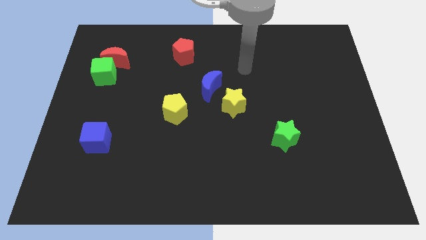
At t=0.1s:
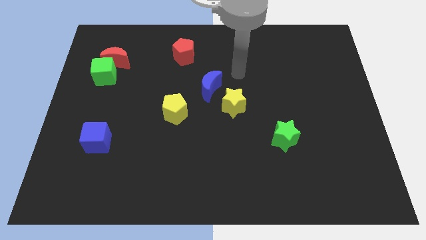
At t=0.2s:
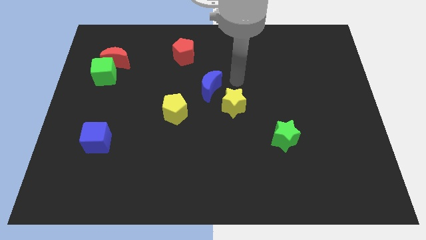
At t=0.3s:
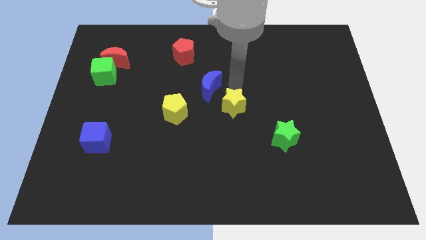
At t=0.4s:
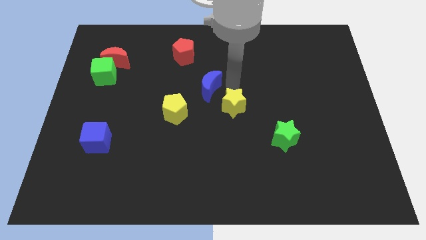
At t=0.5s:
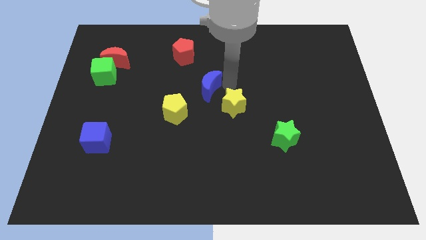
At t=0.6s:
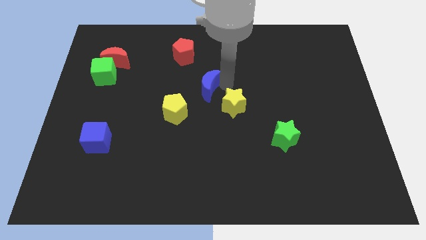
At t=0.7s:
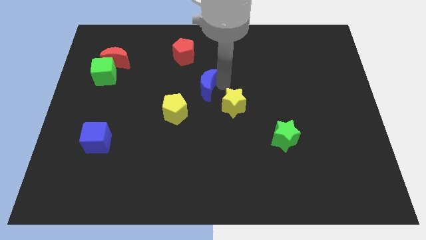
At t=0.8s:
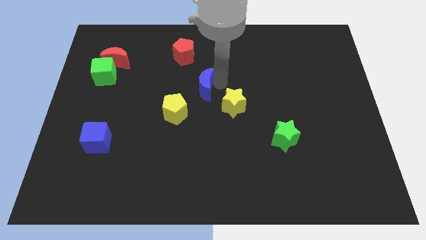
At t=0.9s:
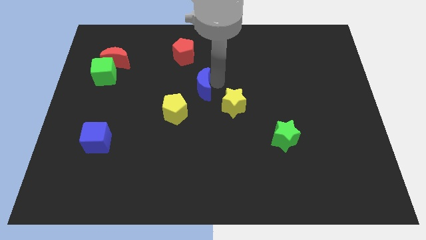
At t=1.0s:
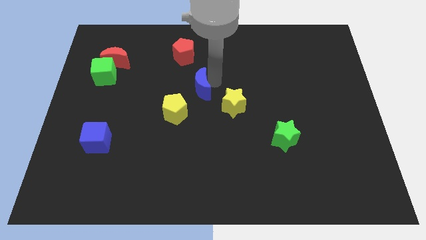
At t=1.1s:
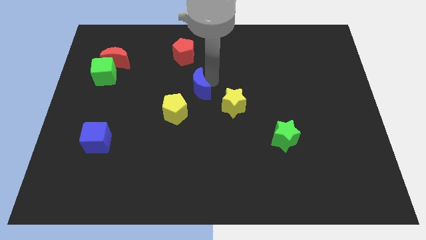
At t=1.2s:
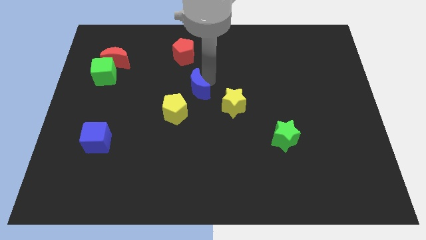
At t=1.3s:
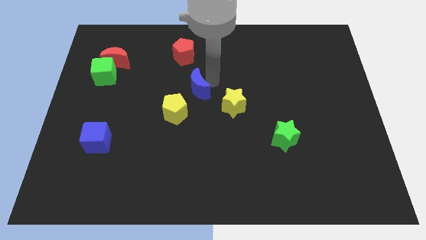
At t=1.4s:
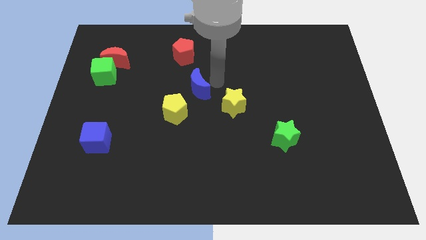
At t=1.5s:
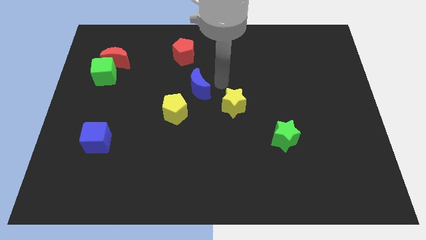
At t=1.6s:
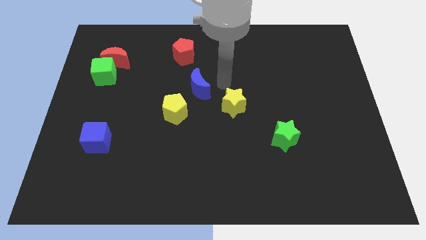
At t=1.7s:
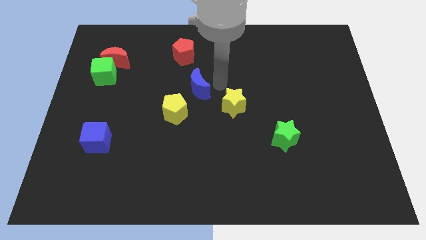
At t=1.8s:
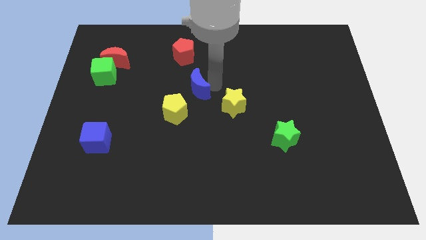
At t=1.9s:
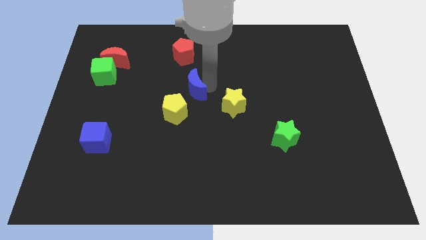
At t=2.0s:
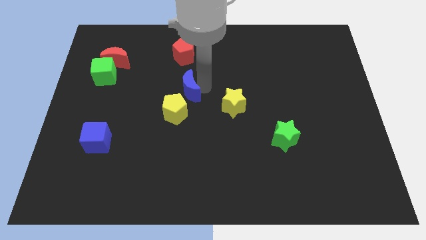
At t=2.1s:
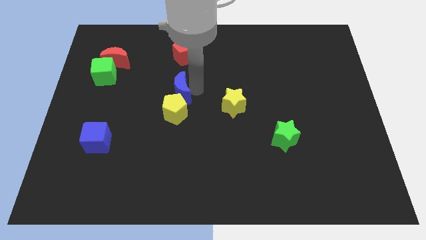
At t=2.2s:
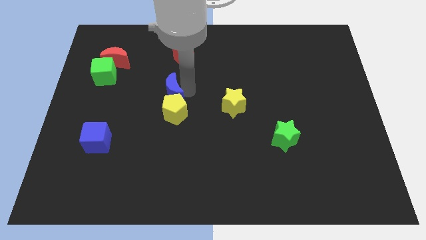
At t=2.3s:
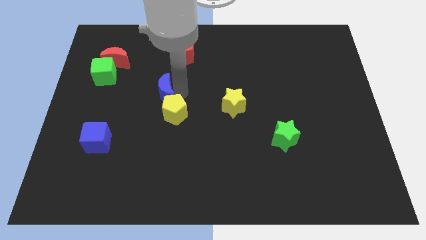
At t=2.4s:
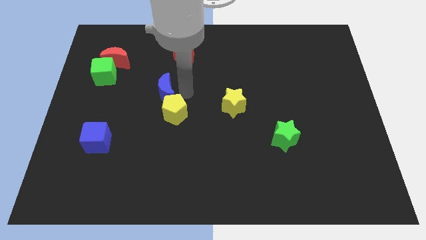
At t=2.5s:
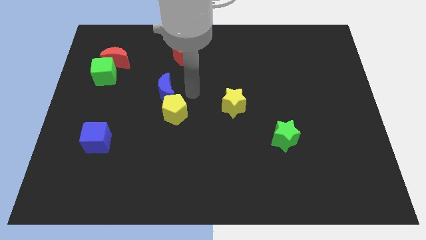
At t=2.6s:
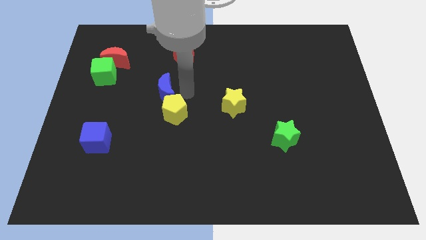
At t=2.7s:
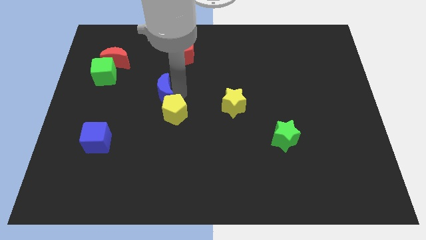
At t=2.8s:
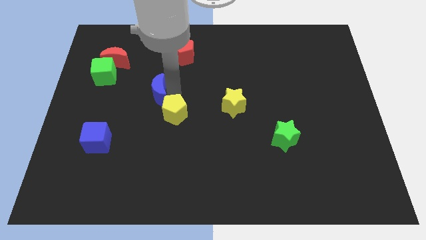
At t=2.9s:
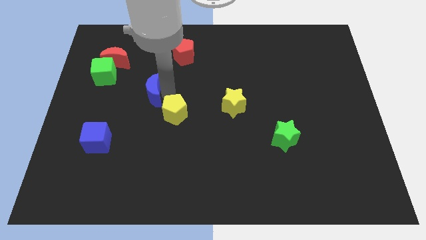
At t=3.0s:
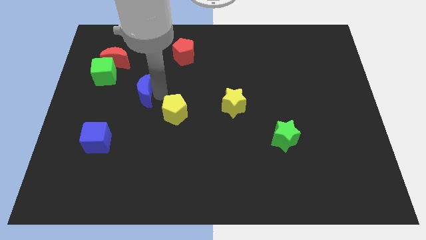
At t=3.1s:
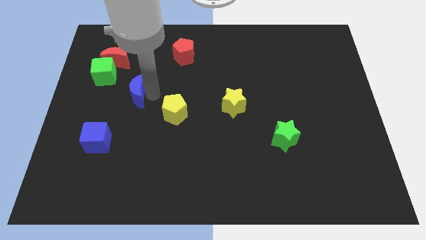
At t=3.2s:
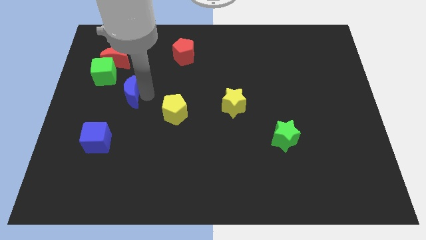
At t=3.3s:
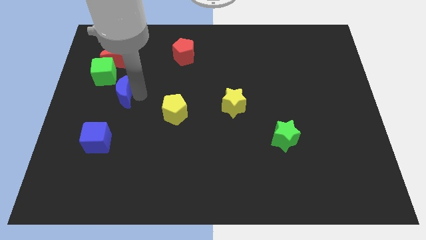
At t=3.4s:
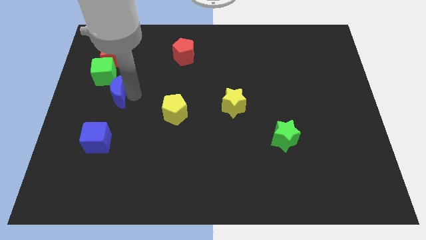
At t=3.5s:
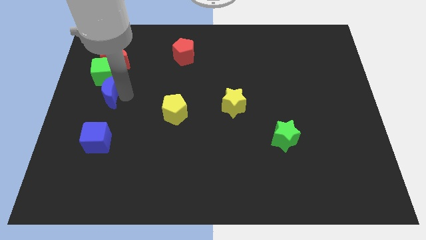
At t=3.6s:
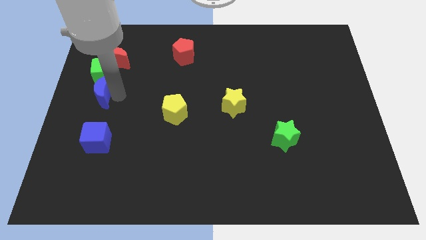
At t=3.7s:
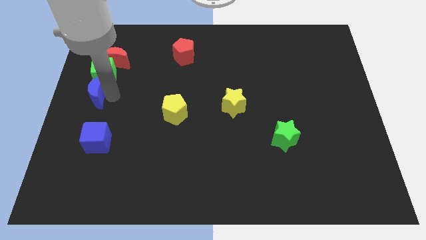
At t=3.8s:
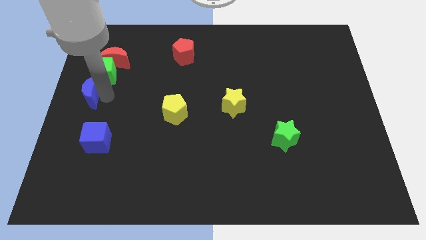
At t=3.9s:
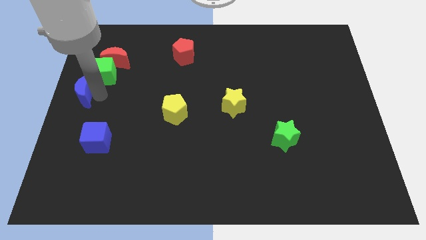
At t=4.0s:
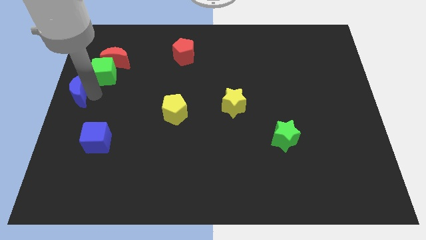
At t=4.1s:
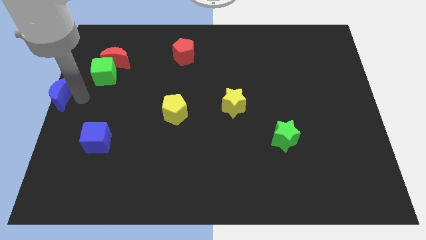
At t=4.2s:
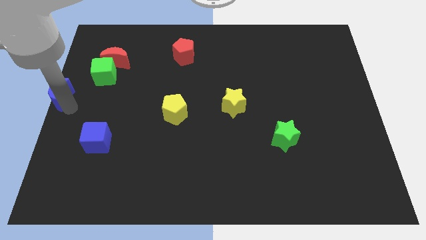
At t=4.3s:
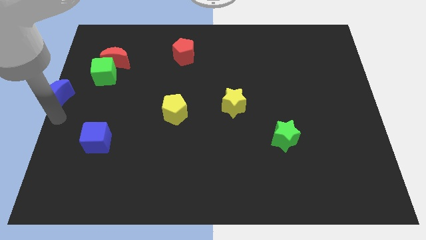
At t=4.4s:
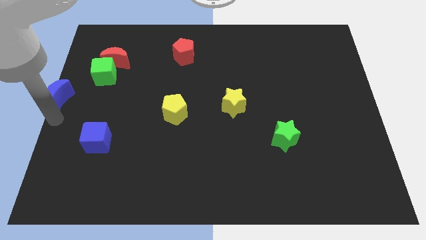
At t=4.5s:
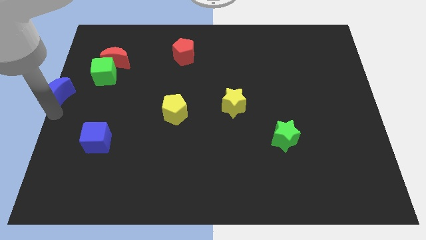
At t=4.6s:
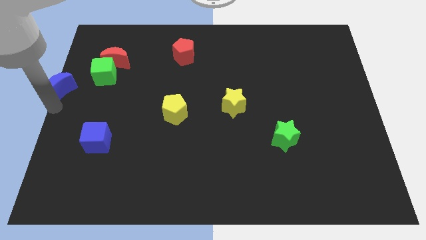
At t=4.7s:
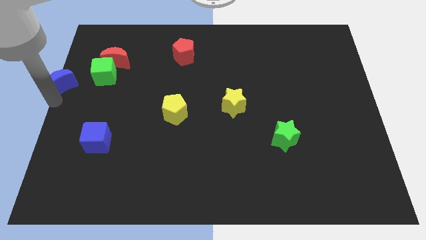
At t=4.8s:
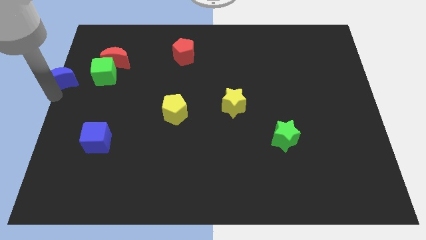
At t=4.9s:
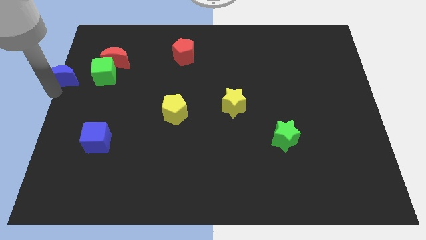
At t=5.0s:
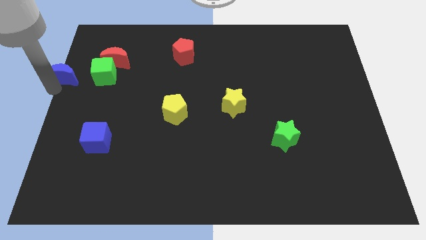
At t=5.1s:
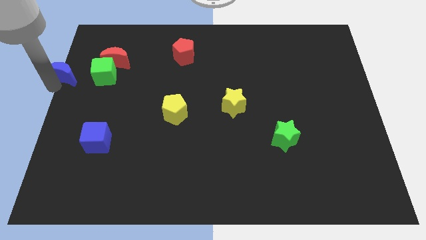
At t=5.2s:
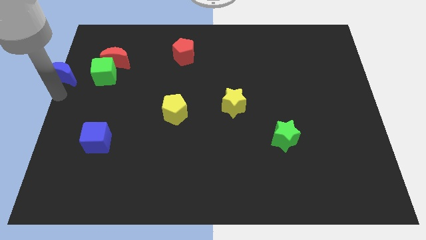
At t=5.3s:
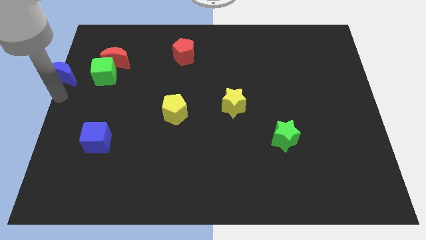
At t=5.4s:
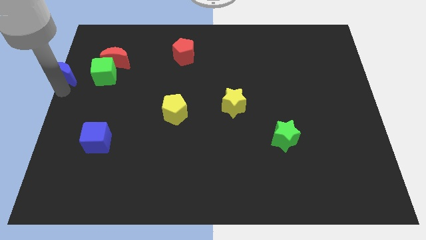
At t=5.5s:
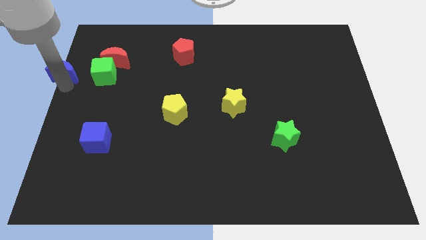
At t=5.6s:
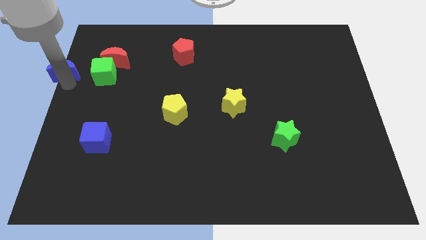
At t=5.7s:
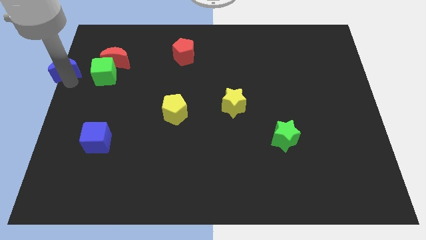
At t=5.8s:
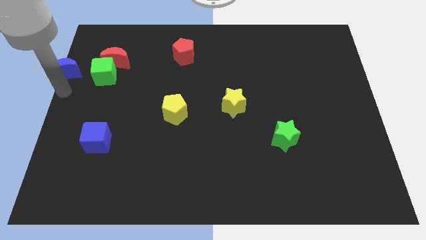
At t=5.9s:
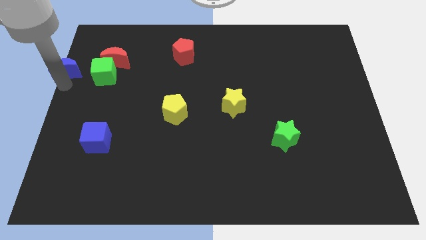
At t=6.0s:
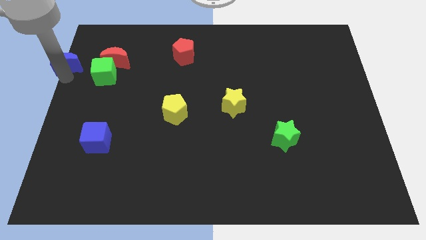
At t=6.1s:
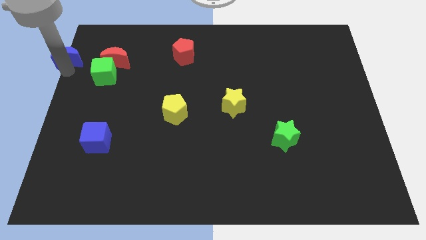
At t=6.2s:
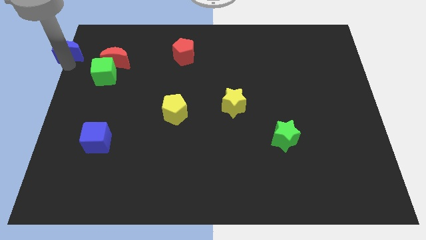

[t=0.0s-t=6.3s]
move the blue moon to the top left corner
